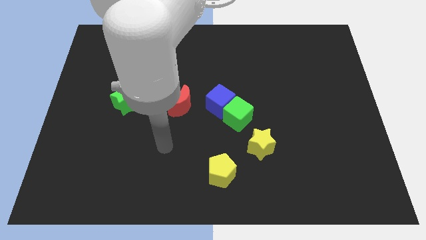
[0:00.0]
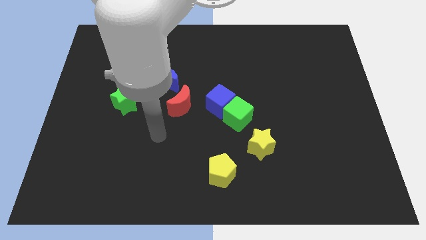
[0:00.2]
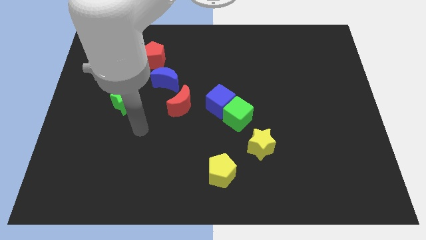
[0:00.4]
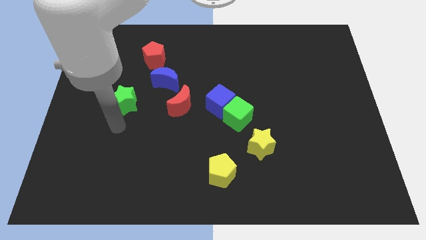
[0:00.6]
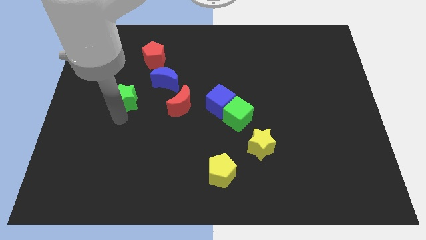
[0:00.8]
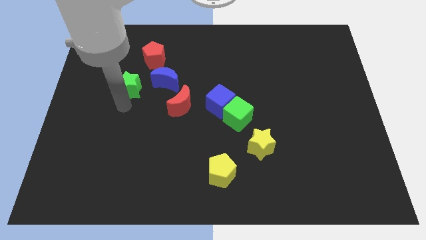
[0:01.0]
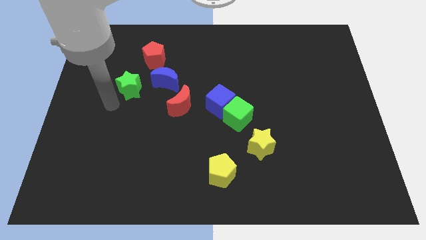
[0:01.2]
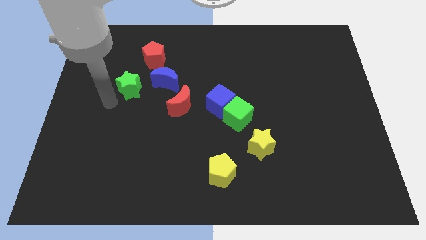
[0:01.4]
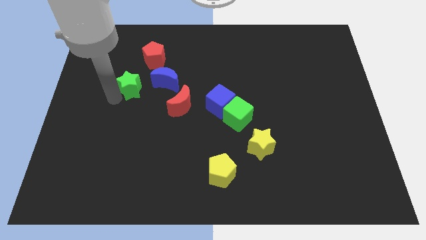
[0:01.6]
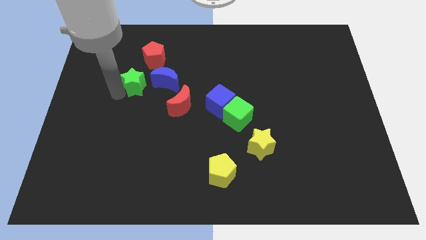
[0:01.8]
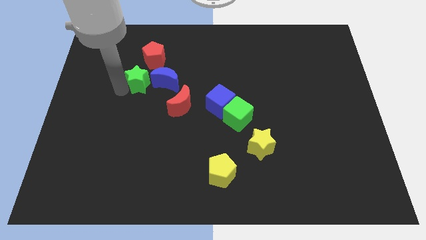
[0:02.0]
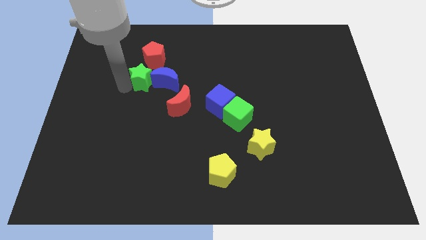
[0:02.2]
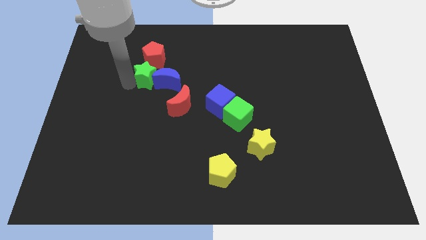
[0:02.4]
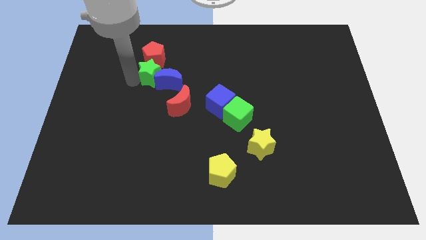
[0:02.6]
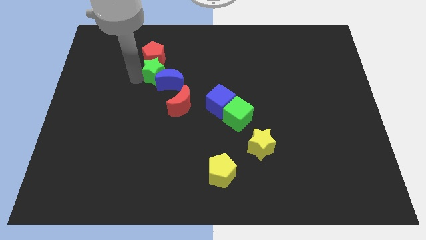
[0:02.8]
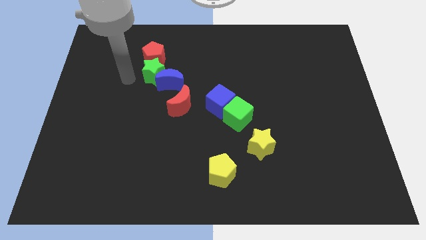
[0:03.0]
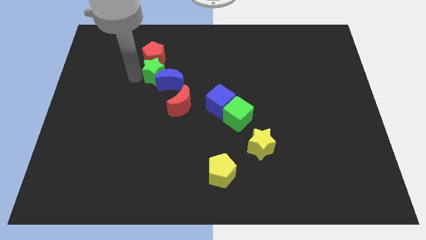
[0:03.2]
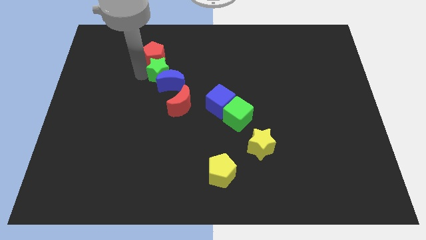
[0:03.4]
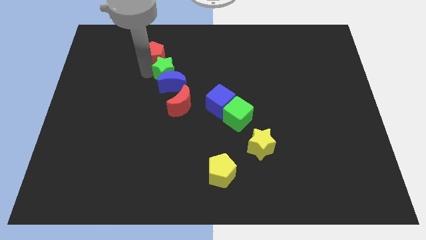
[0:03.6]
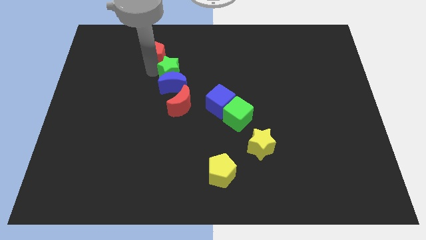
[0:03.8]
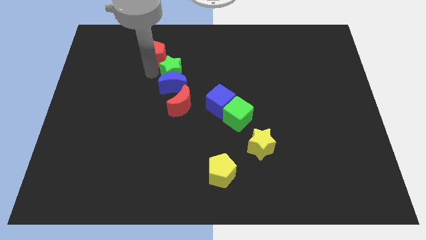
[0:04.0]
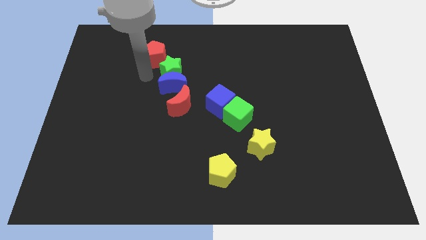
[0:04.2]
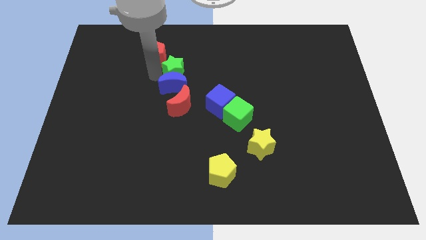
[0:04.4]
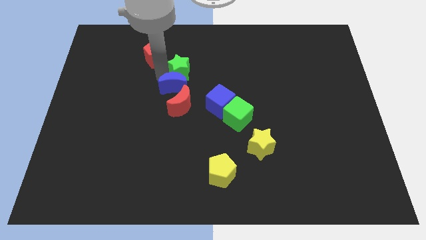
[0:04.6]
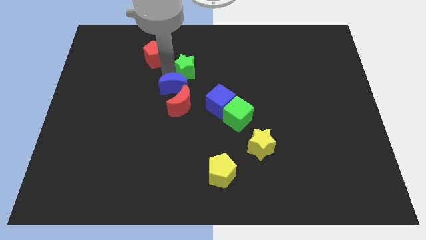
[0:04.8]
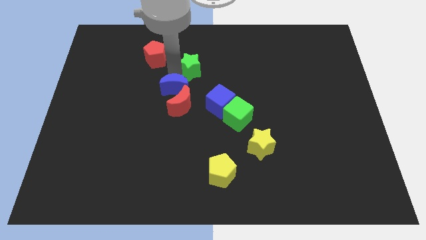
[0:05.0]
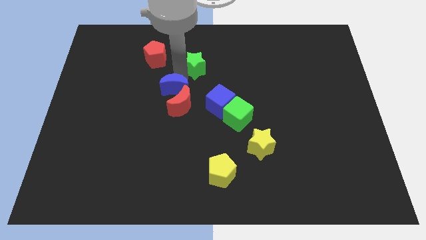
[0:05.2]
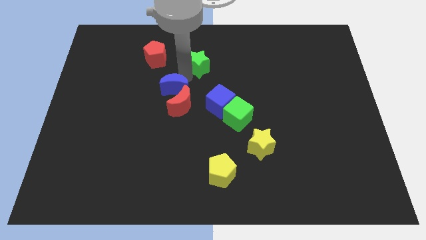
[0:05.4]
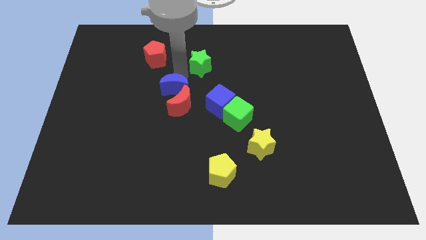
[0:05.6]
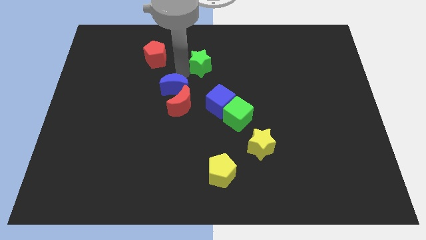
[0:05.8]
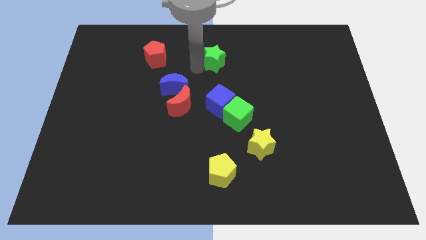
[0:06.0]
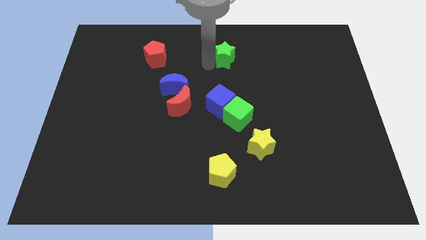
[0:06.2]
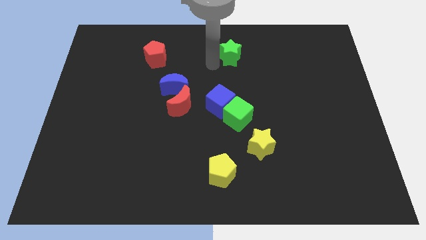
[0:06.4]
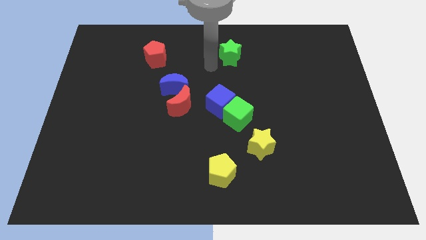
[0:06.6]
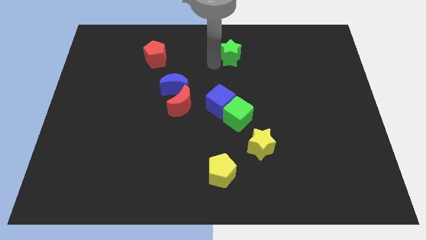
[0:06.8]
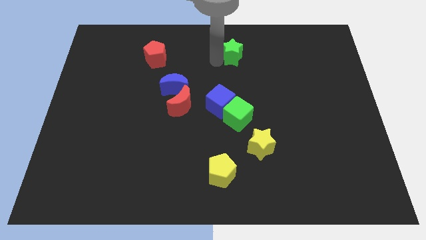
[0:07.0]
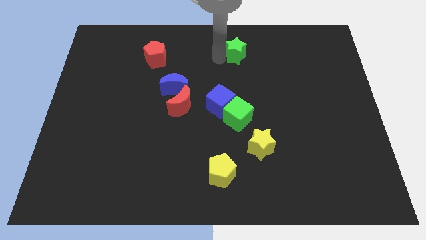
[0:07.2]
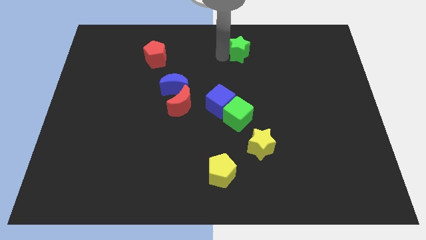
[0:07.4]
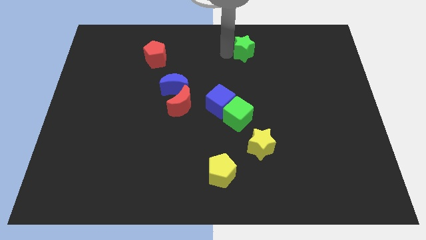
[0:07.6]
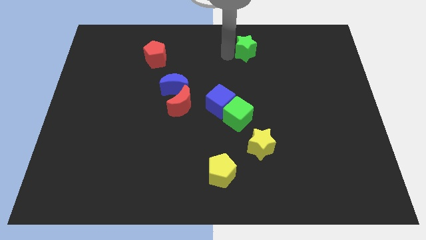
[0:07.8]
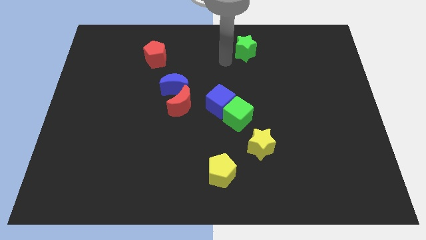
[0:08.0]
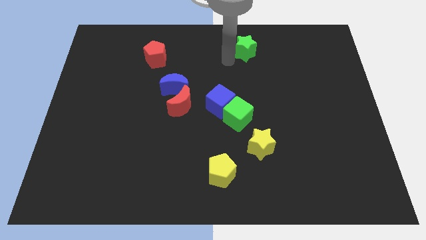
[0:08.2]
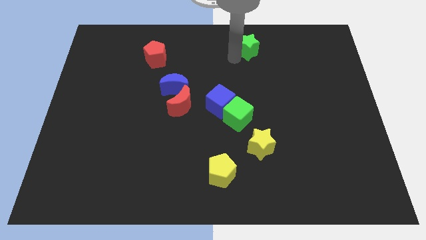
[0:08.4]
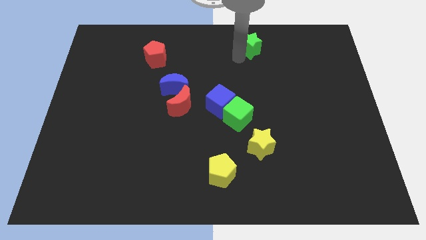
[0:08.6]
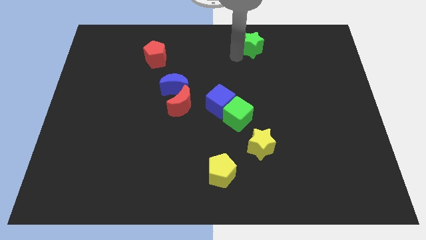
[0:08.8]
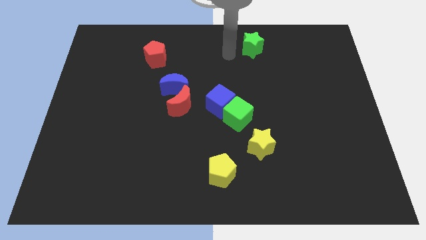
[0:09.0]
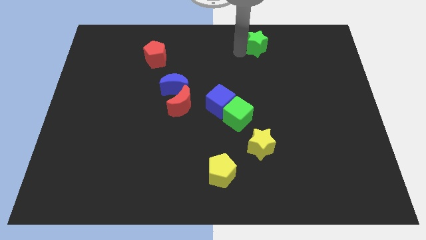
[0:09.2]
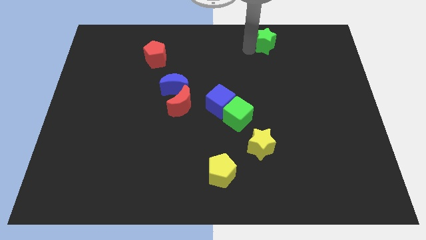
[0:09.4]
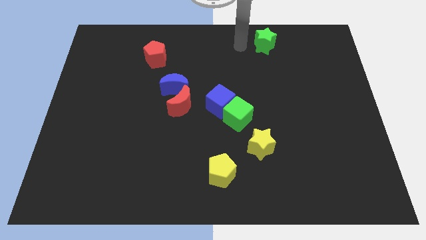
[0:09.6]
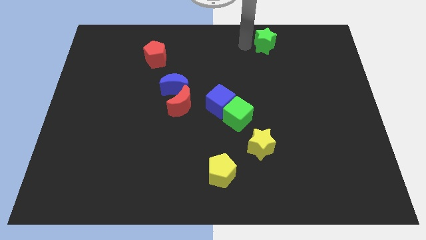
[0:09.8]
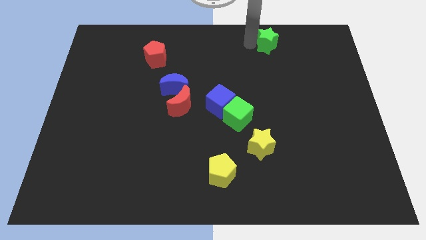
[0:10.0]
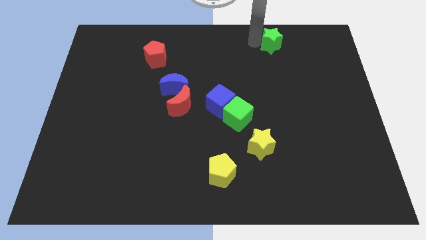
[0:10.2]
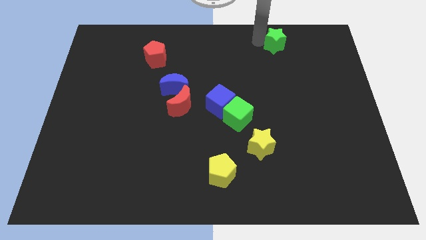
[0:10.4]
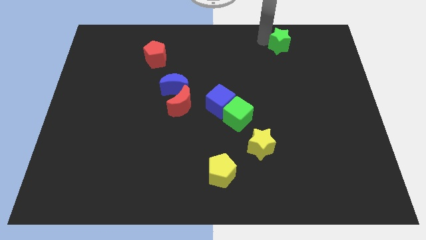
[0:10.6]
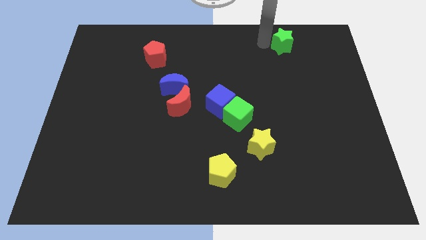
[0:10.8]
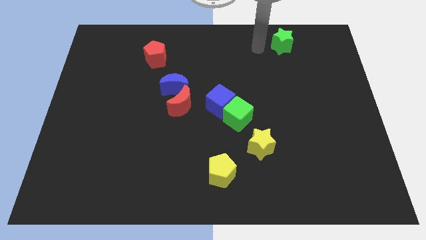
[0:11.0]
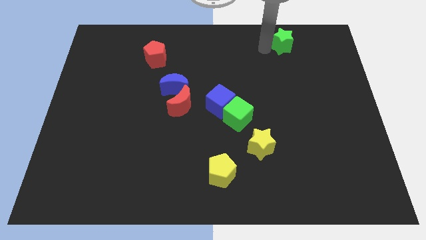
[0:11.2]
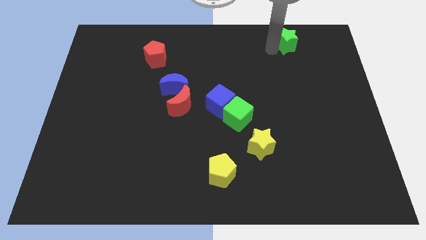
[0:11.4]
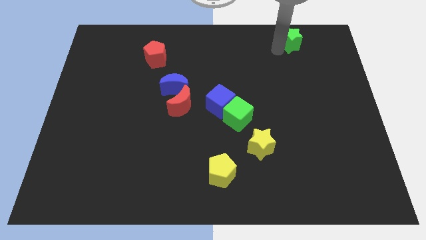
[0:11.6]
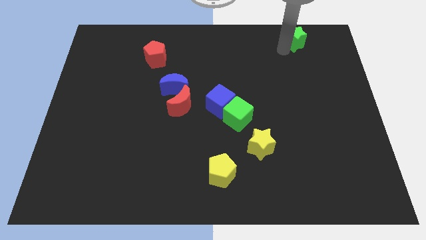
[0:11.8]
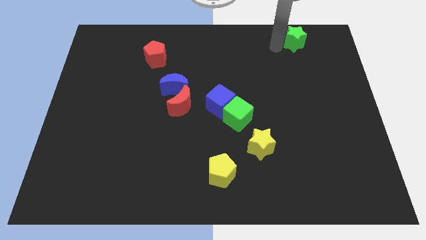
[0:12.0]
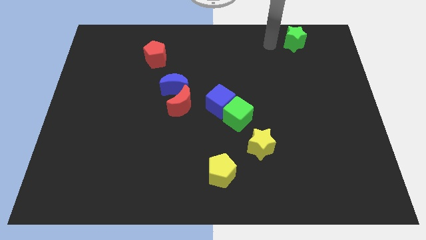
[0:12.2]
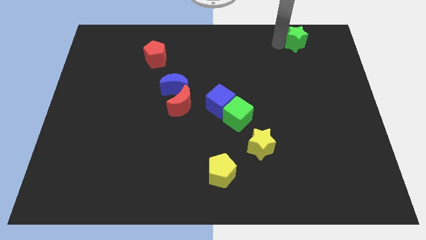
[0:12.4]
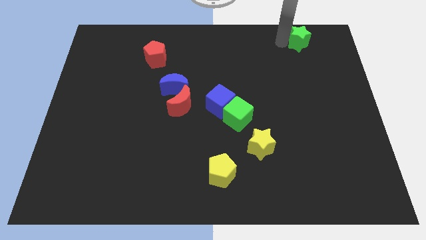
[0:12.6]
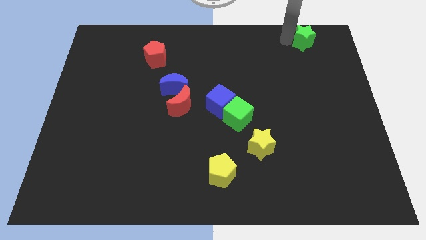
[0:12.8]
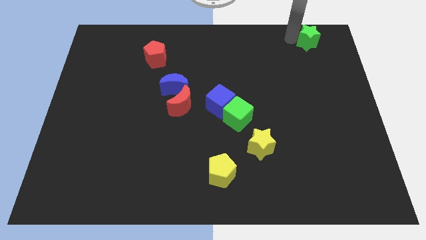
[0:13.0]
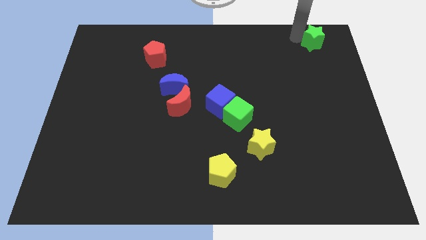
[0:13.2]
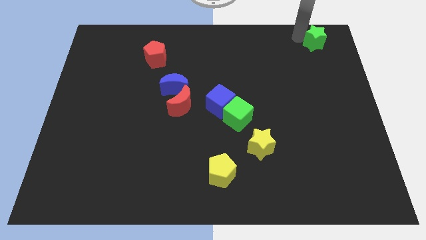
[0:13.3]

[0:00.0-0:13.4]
put the green star to the top right corner
